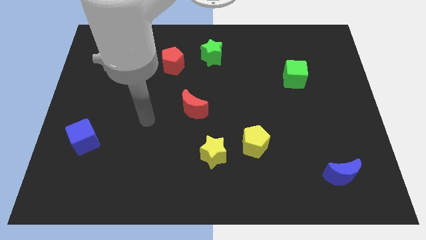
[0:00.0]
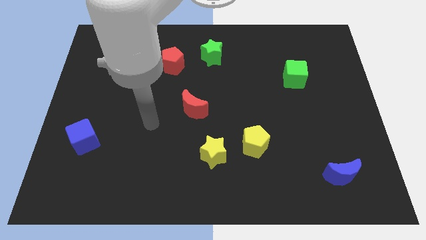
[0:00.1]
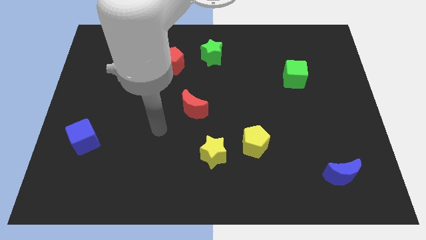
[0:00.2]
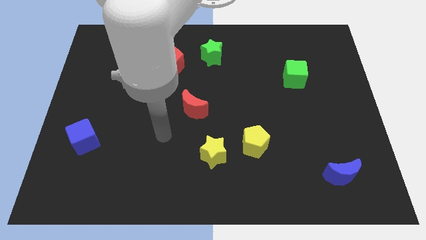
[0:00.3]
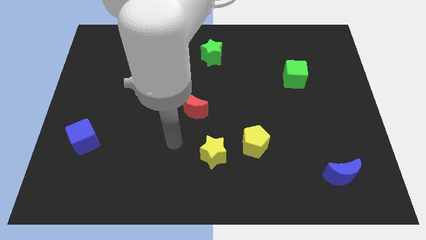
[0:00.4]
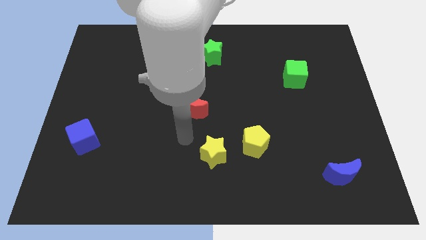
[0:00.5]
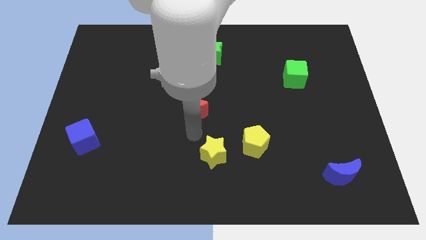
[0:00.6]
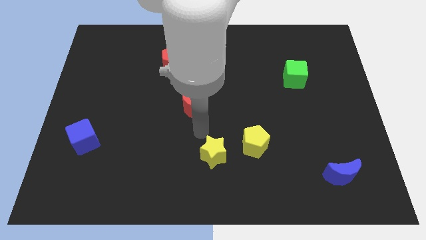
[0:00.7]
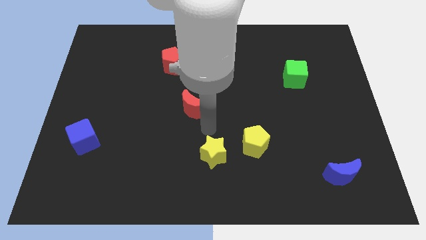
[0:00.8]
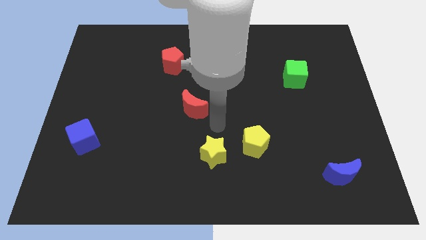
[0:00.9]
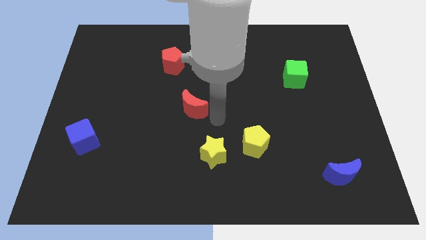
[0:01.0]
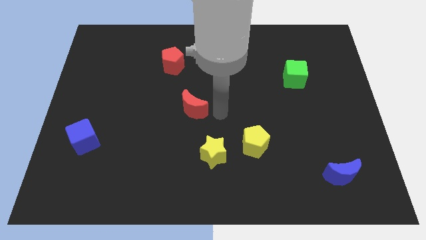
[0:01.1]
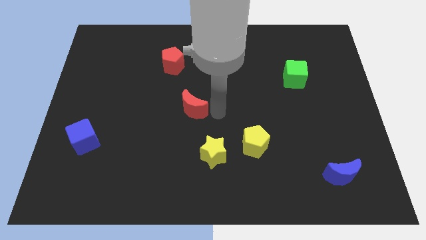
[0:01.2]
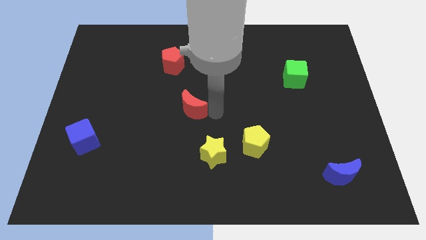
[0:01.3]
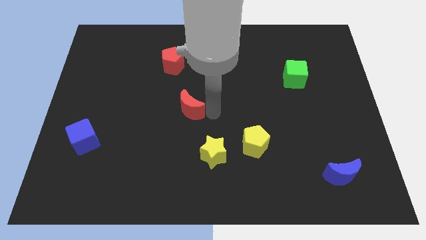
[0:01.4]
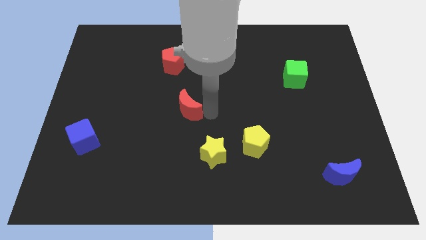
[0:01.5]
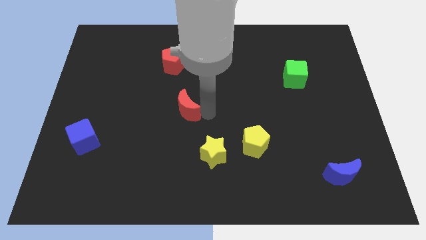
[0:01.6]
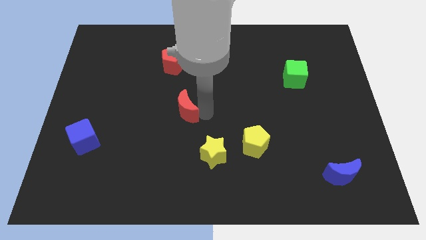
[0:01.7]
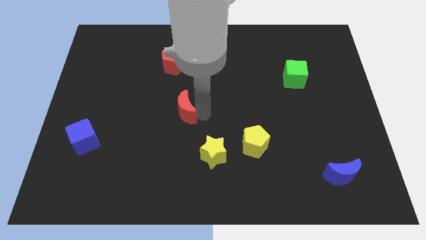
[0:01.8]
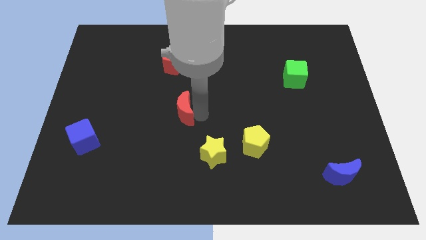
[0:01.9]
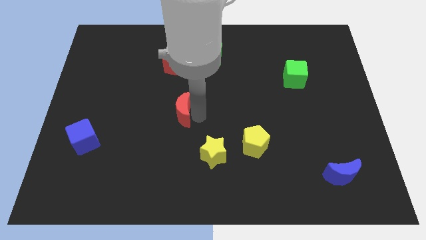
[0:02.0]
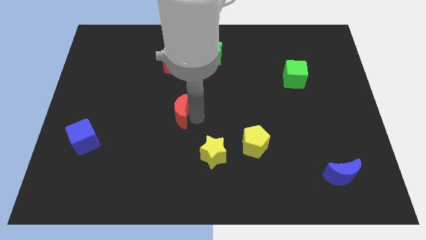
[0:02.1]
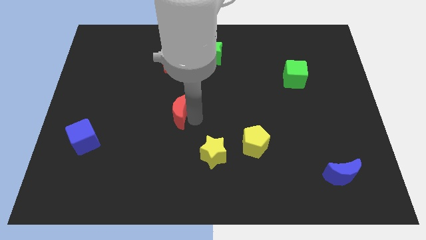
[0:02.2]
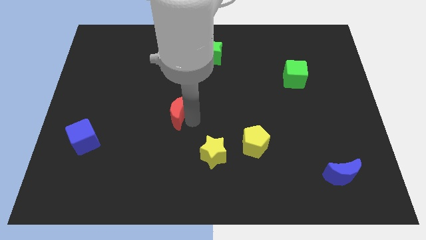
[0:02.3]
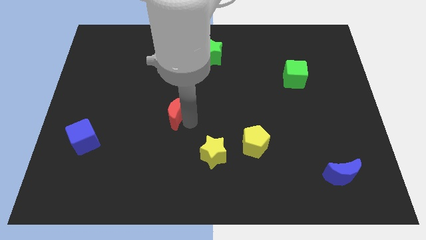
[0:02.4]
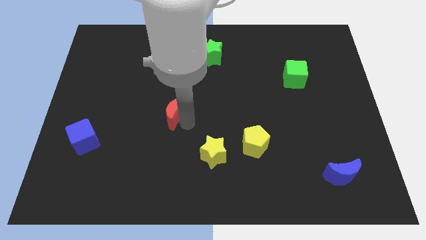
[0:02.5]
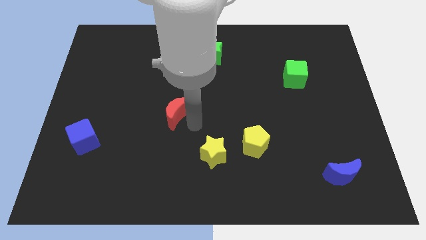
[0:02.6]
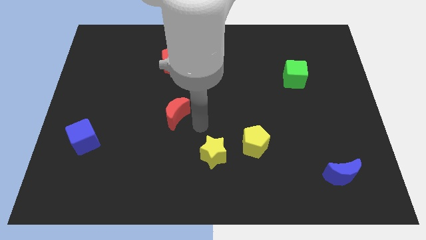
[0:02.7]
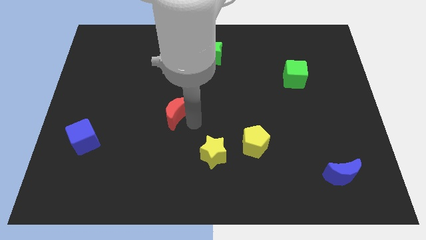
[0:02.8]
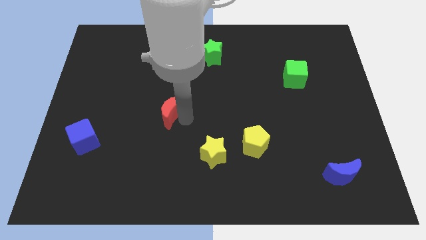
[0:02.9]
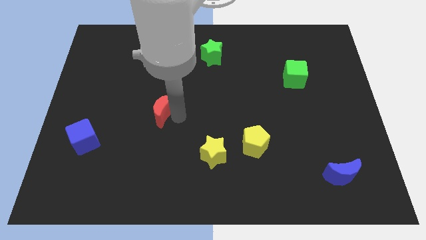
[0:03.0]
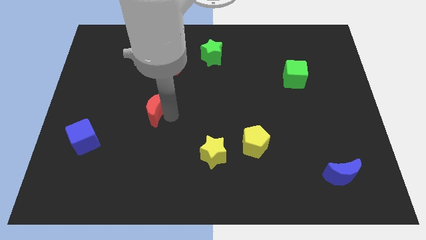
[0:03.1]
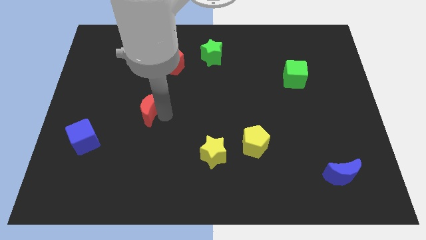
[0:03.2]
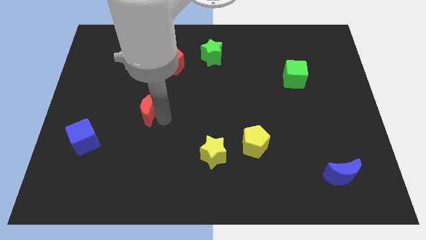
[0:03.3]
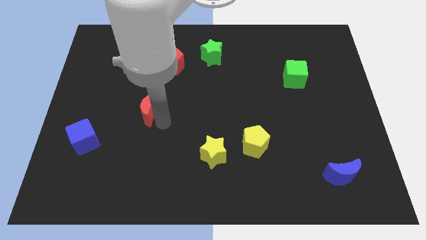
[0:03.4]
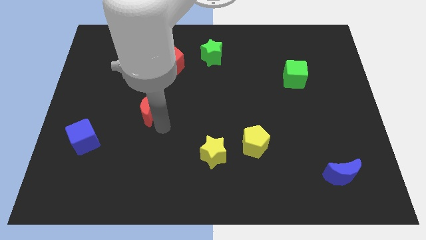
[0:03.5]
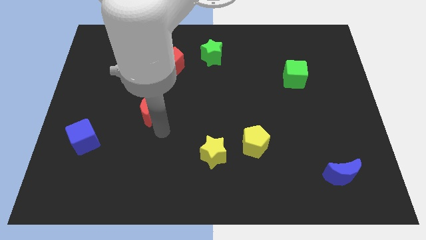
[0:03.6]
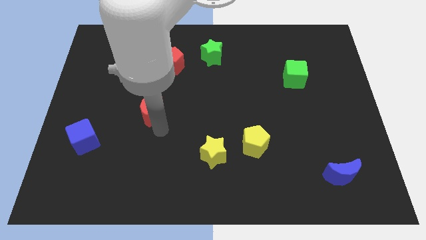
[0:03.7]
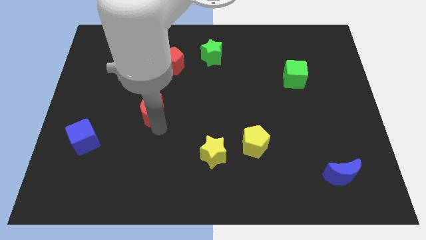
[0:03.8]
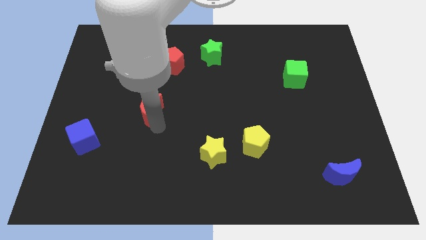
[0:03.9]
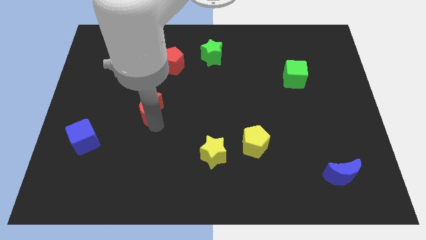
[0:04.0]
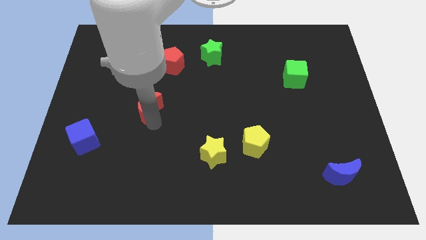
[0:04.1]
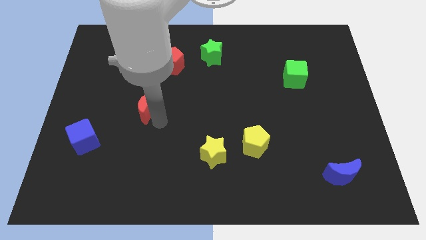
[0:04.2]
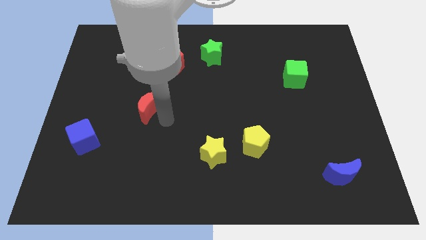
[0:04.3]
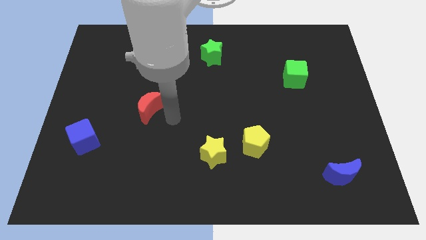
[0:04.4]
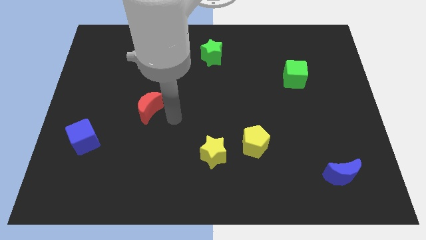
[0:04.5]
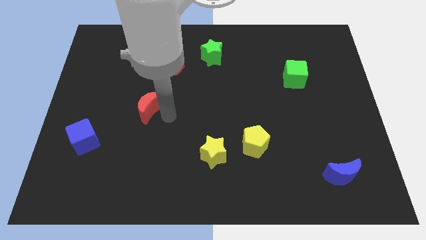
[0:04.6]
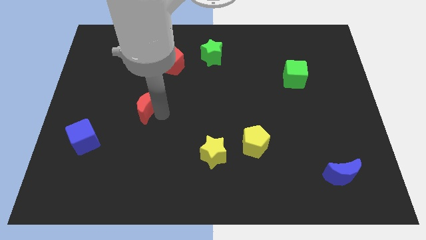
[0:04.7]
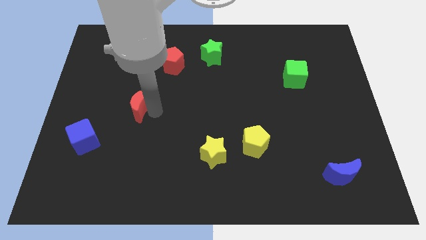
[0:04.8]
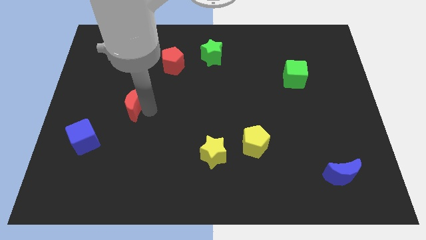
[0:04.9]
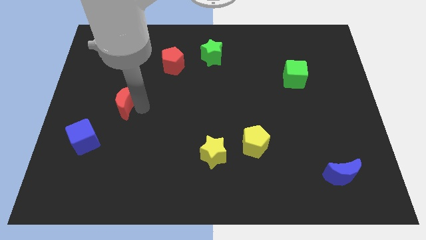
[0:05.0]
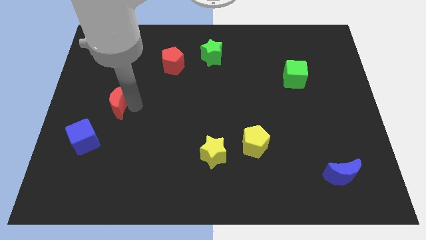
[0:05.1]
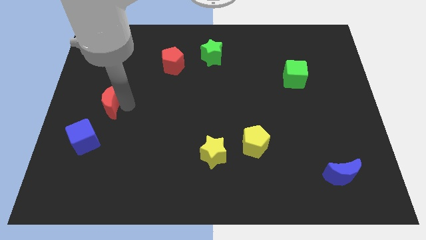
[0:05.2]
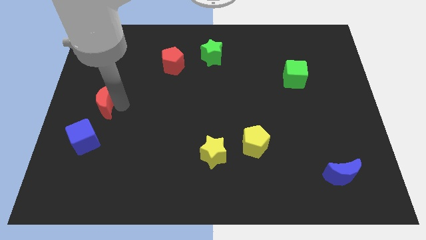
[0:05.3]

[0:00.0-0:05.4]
slide the red moon to the left side of the board

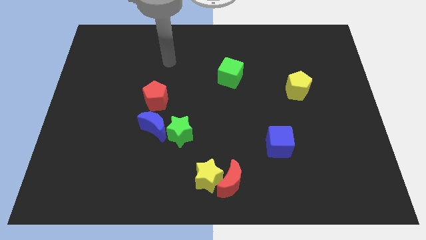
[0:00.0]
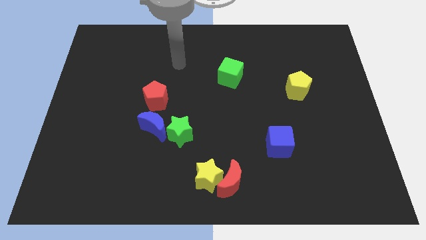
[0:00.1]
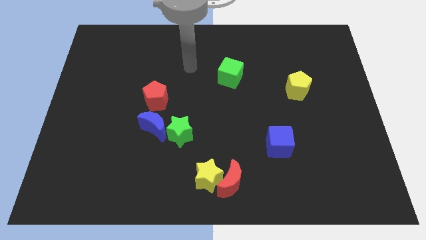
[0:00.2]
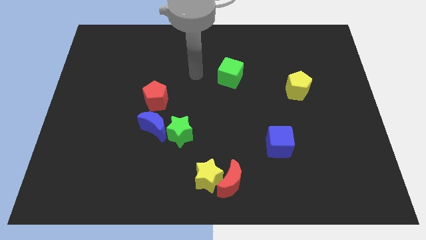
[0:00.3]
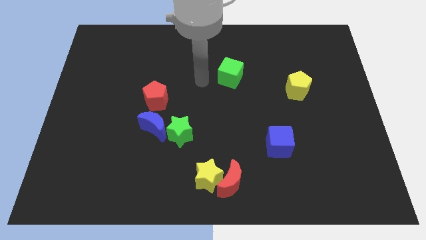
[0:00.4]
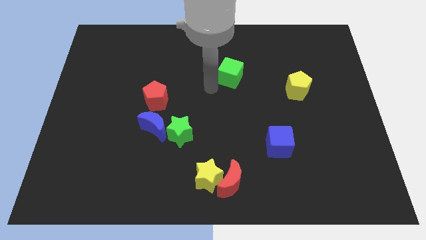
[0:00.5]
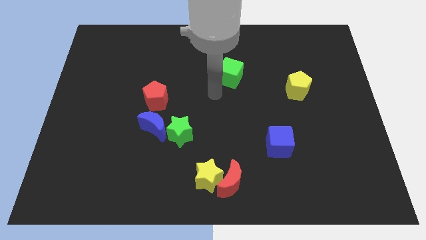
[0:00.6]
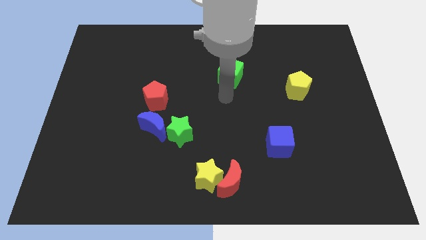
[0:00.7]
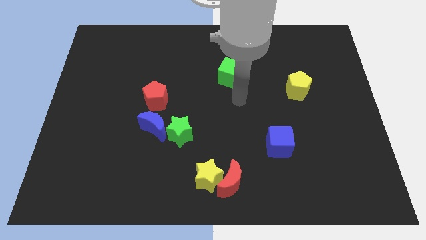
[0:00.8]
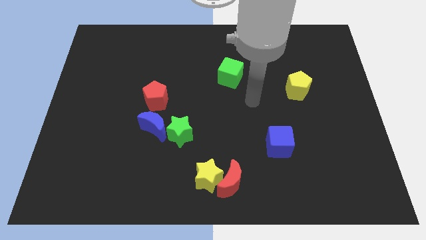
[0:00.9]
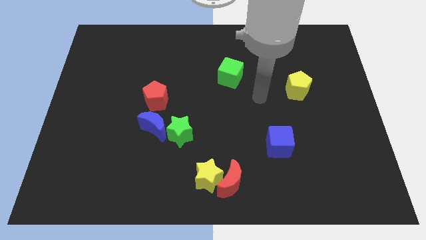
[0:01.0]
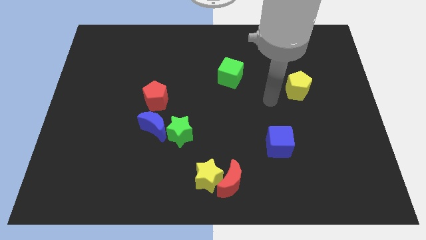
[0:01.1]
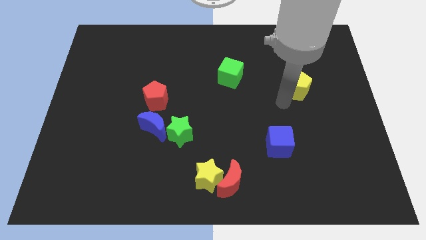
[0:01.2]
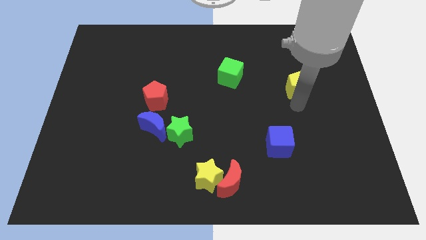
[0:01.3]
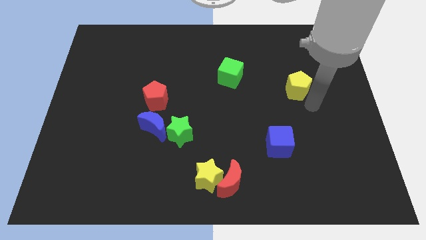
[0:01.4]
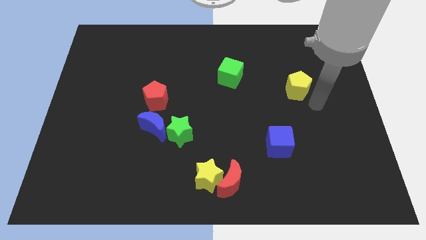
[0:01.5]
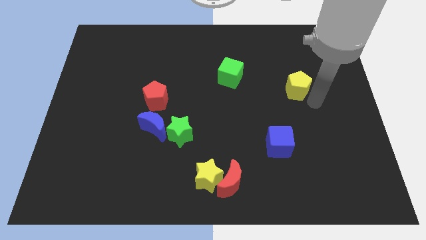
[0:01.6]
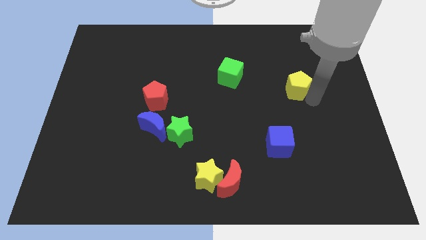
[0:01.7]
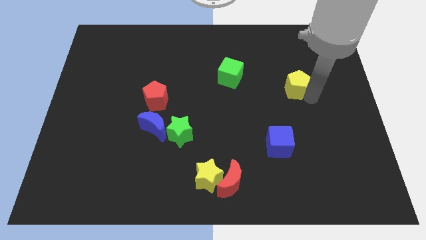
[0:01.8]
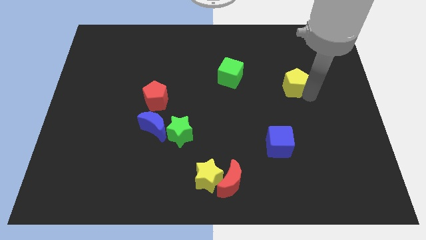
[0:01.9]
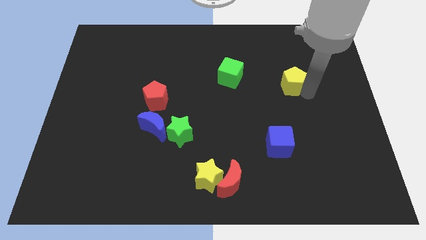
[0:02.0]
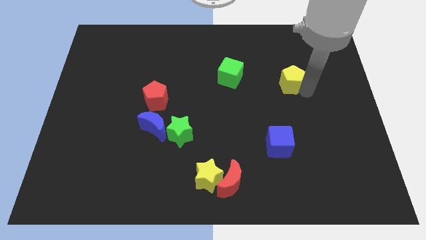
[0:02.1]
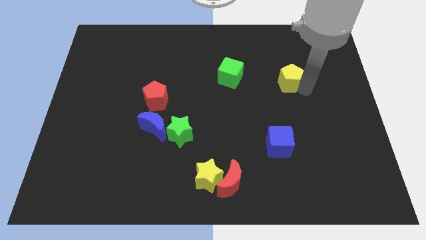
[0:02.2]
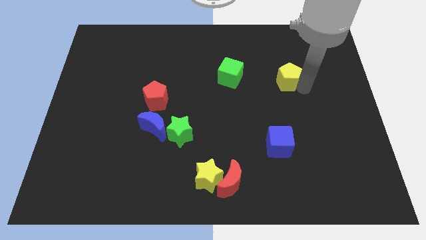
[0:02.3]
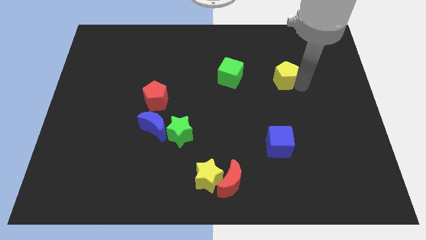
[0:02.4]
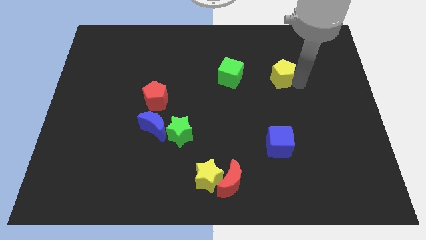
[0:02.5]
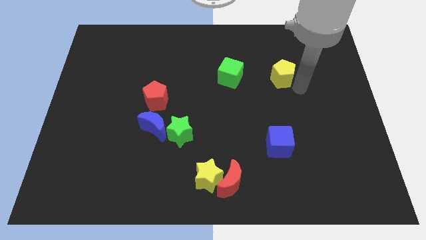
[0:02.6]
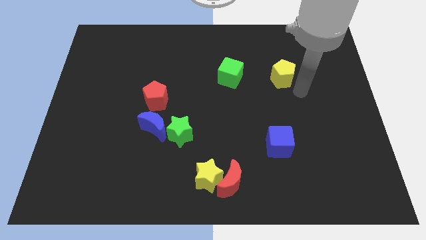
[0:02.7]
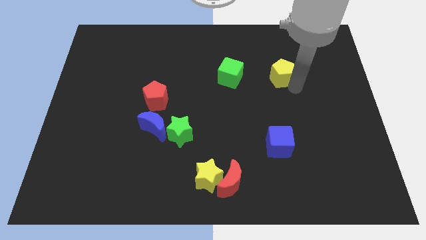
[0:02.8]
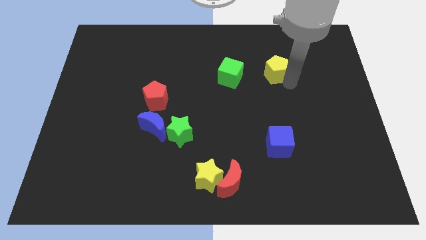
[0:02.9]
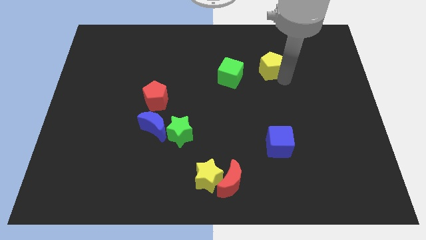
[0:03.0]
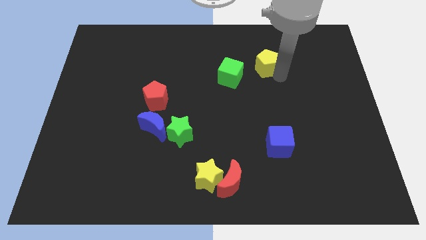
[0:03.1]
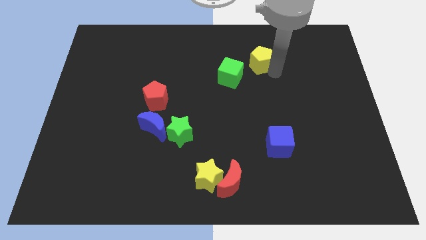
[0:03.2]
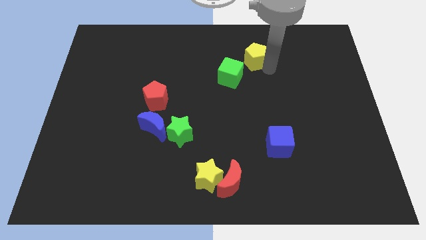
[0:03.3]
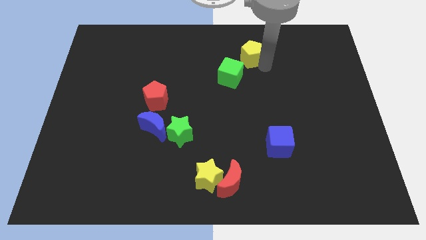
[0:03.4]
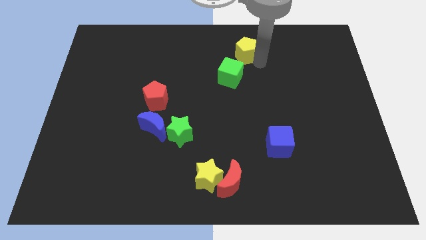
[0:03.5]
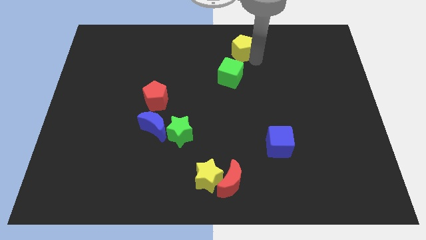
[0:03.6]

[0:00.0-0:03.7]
slide the yellow pentagon to the towards your base
